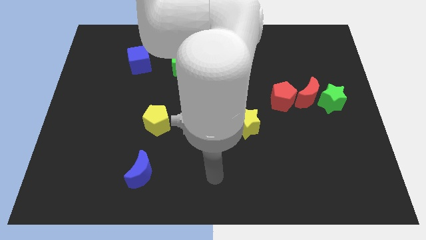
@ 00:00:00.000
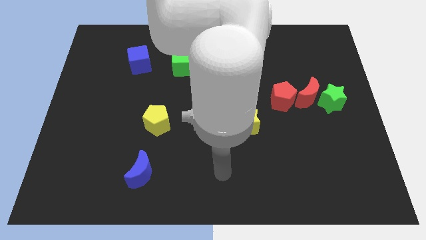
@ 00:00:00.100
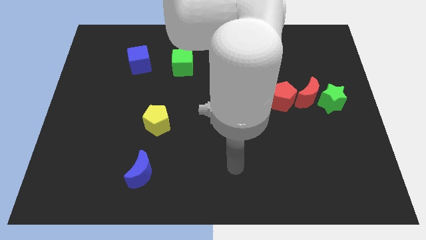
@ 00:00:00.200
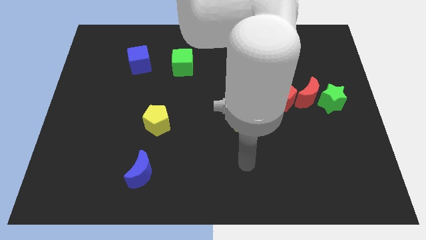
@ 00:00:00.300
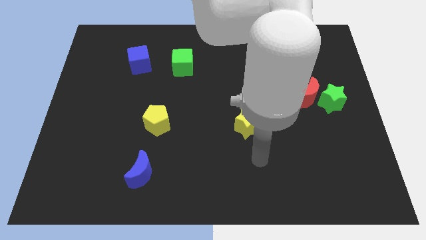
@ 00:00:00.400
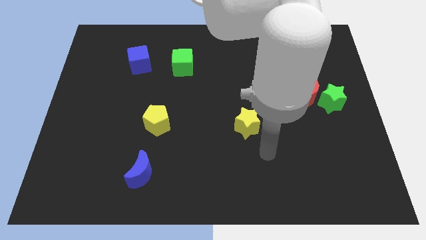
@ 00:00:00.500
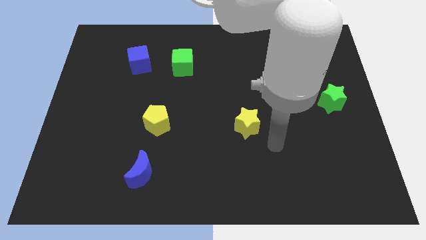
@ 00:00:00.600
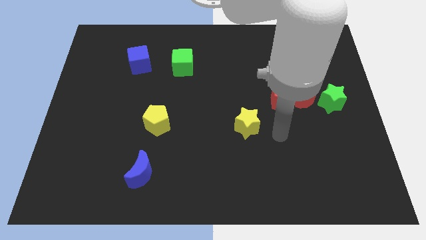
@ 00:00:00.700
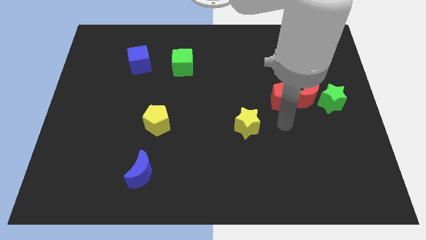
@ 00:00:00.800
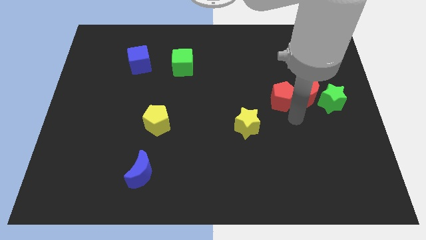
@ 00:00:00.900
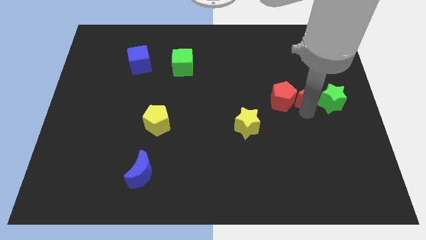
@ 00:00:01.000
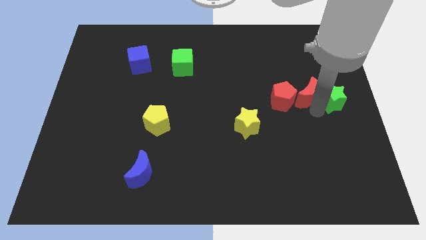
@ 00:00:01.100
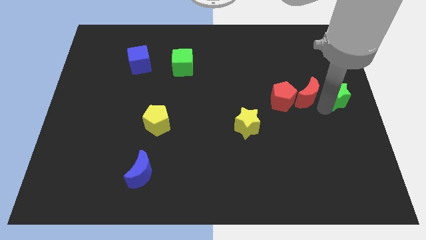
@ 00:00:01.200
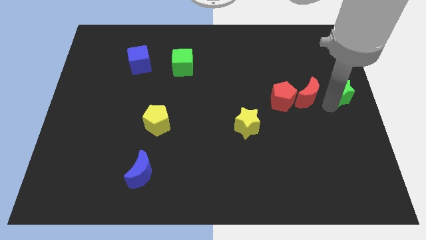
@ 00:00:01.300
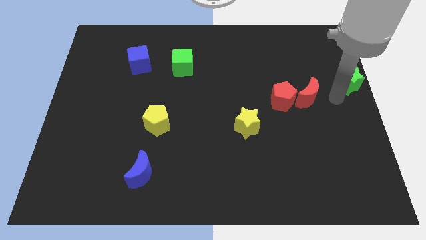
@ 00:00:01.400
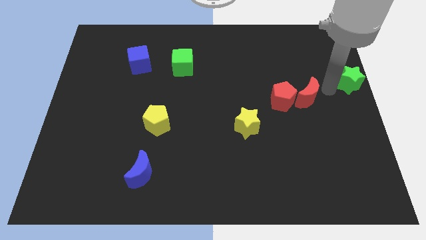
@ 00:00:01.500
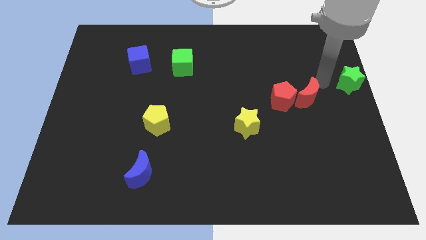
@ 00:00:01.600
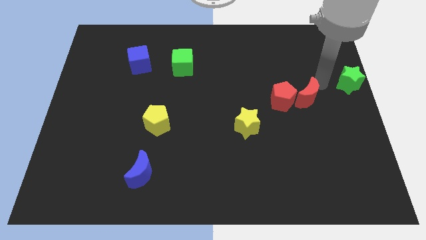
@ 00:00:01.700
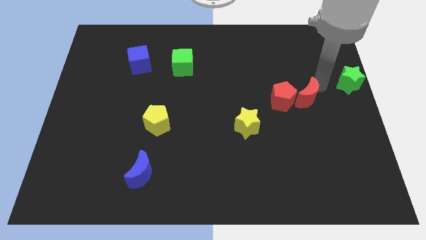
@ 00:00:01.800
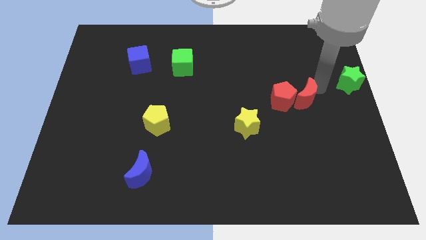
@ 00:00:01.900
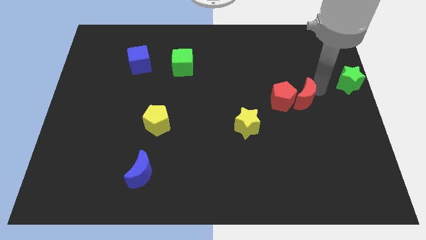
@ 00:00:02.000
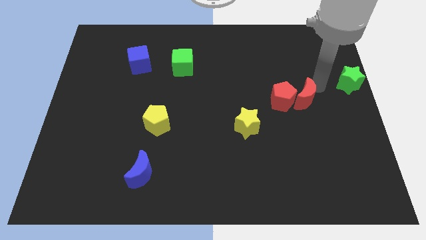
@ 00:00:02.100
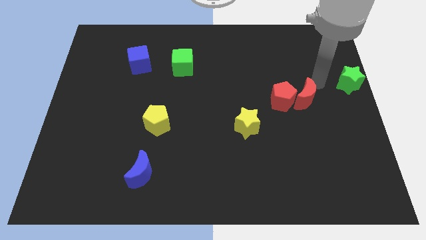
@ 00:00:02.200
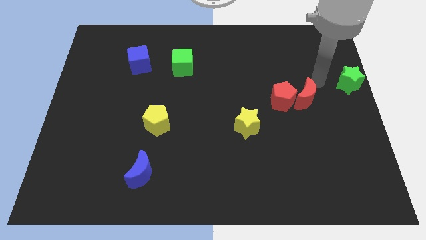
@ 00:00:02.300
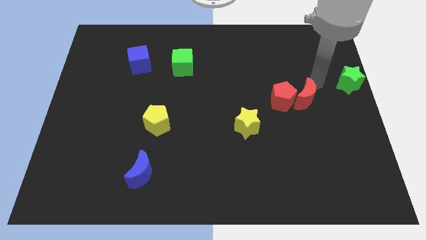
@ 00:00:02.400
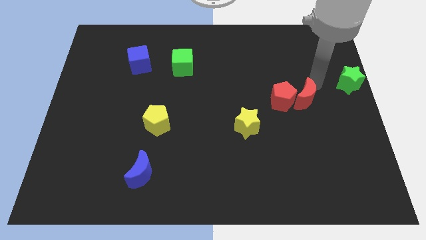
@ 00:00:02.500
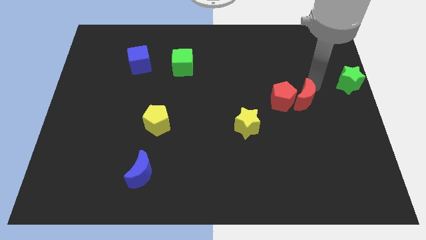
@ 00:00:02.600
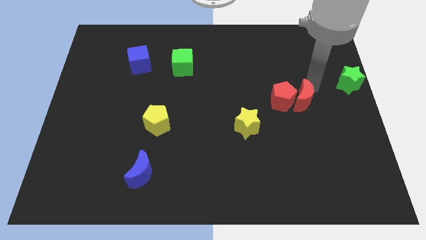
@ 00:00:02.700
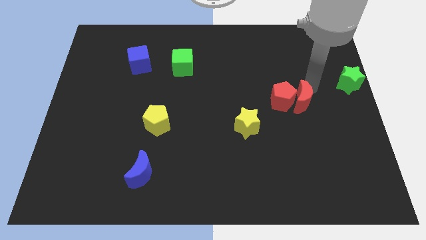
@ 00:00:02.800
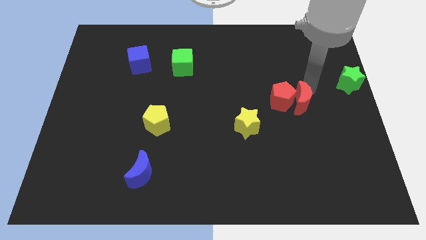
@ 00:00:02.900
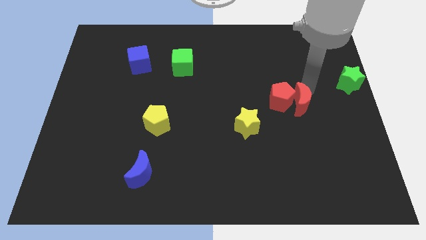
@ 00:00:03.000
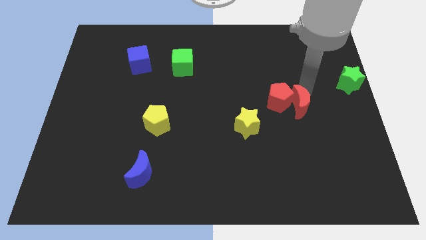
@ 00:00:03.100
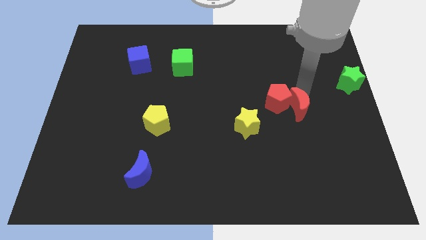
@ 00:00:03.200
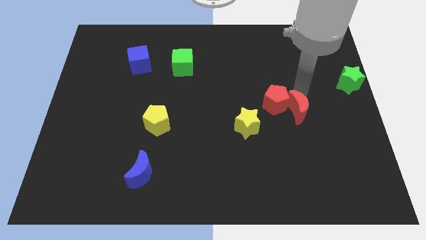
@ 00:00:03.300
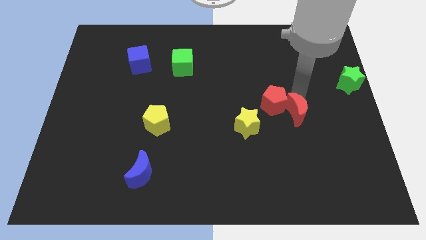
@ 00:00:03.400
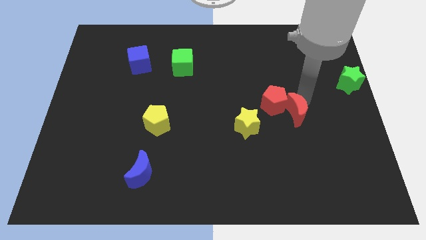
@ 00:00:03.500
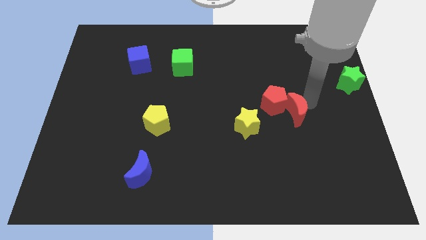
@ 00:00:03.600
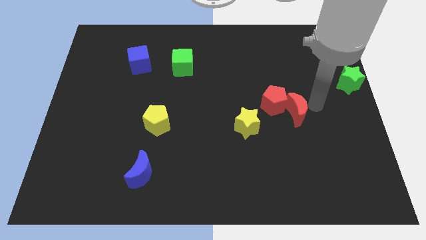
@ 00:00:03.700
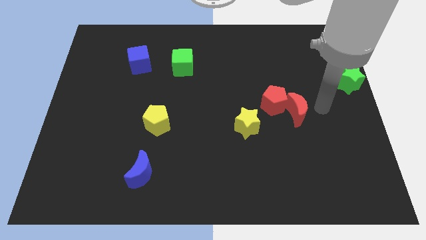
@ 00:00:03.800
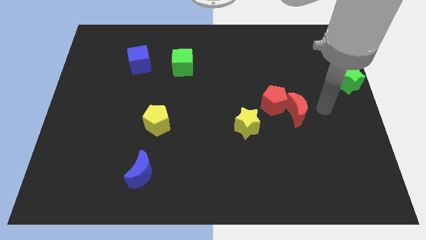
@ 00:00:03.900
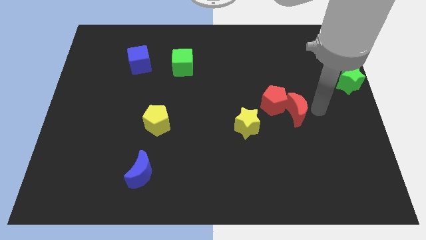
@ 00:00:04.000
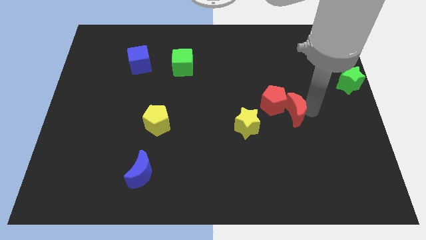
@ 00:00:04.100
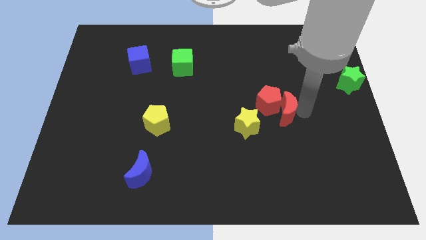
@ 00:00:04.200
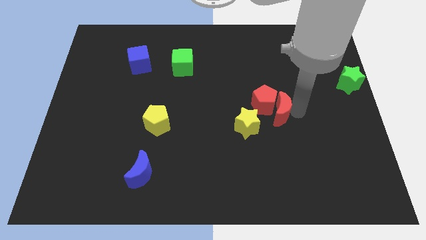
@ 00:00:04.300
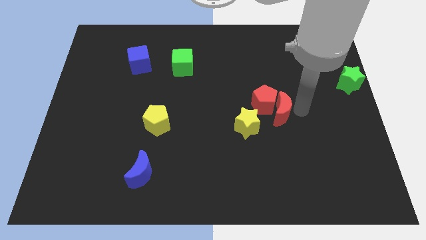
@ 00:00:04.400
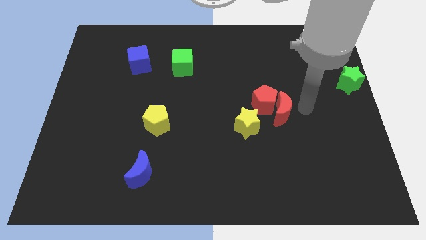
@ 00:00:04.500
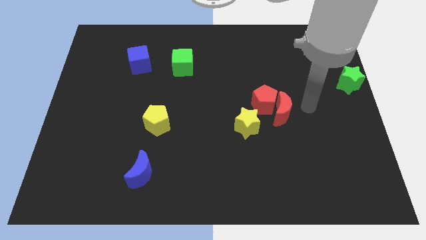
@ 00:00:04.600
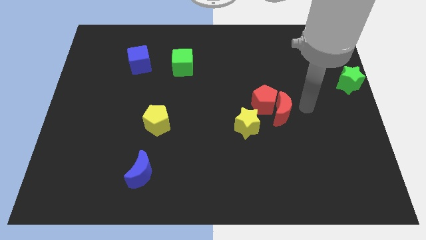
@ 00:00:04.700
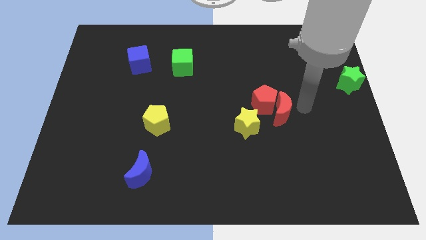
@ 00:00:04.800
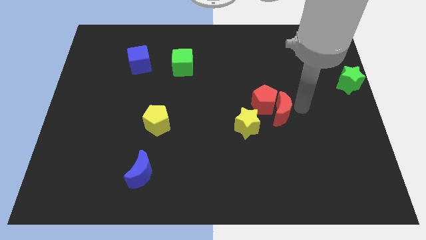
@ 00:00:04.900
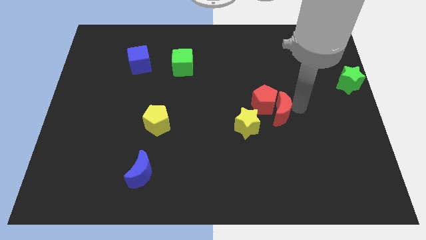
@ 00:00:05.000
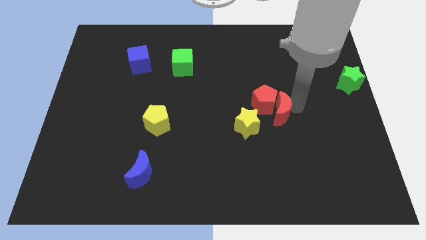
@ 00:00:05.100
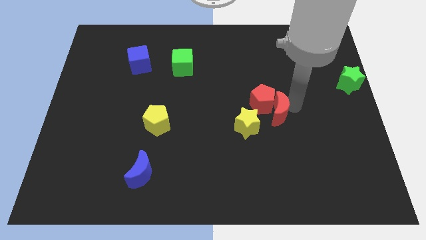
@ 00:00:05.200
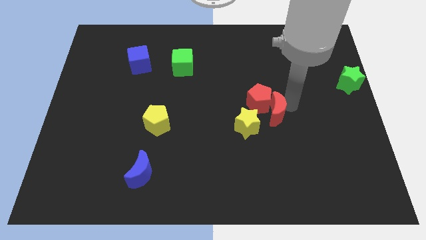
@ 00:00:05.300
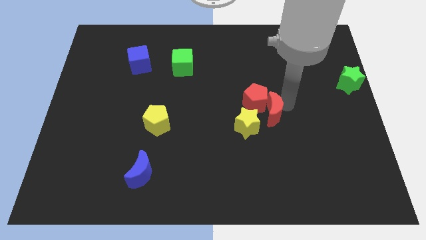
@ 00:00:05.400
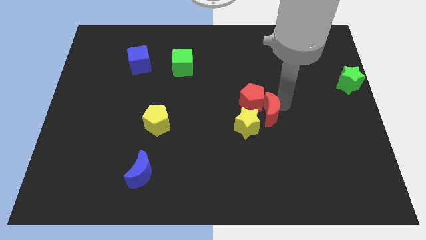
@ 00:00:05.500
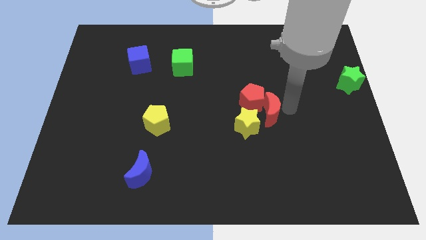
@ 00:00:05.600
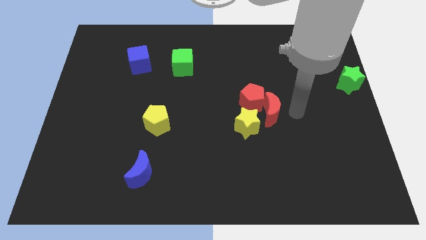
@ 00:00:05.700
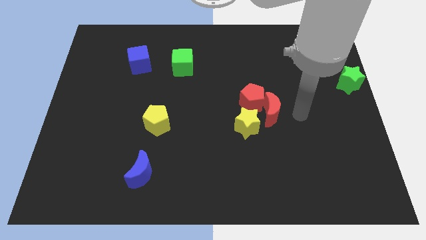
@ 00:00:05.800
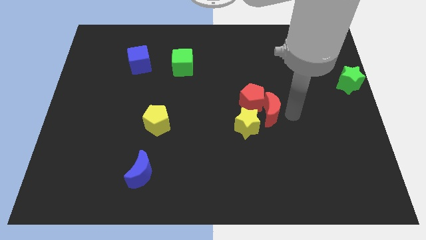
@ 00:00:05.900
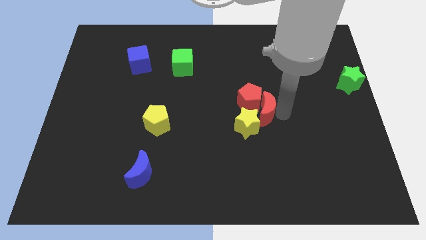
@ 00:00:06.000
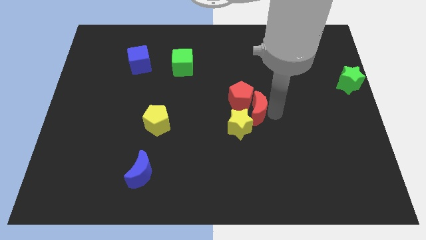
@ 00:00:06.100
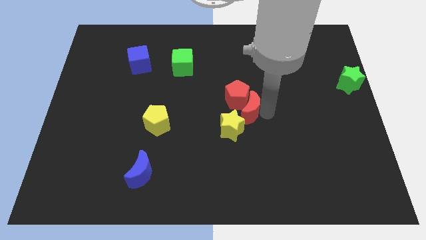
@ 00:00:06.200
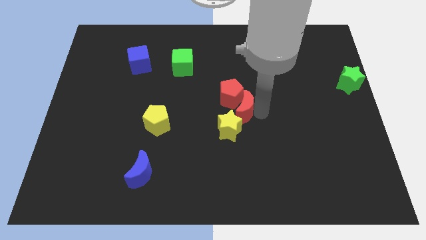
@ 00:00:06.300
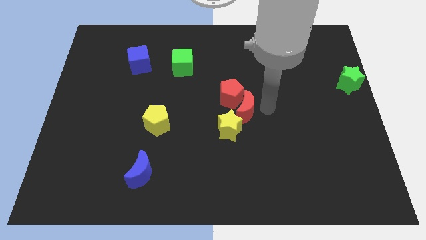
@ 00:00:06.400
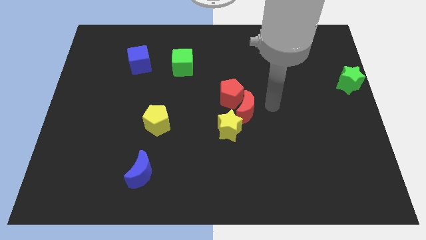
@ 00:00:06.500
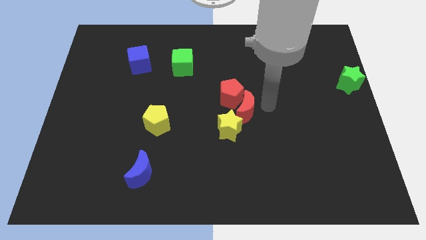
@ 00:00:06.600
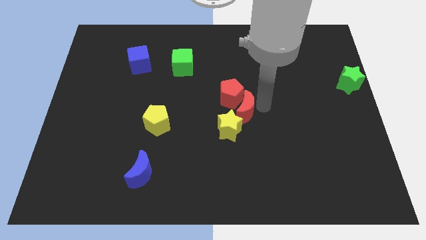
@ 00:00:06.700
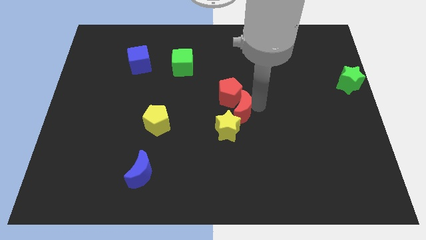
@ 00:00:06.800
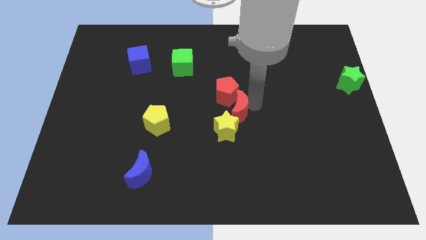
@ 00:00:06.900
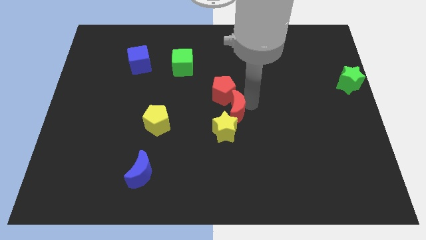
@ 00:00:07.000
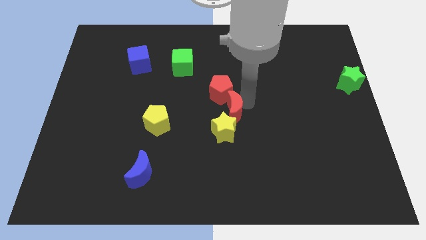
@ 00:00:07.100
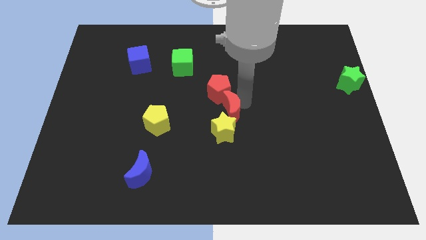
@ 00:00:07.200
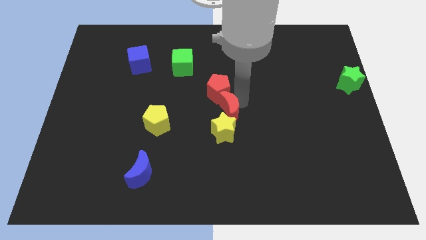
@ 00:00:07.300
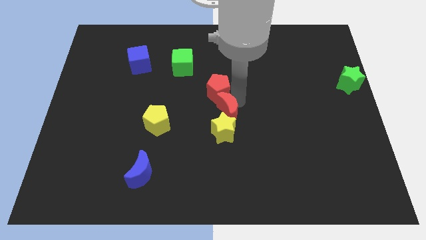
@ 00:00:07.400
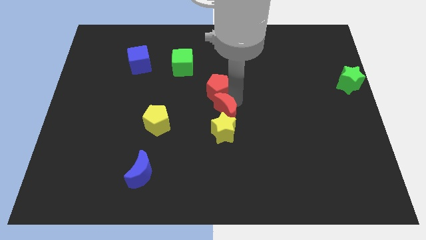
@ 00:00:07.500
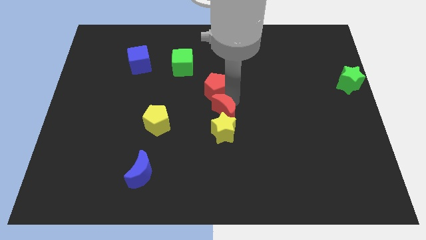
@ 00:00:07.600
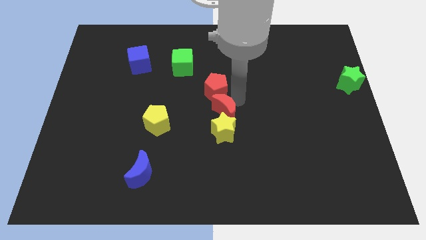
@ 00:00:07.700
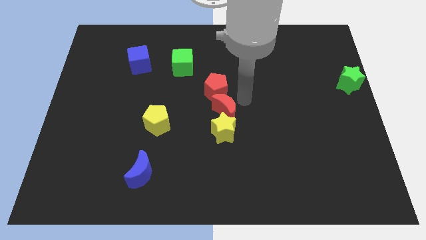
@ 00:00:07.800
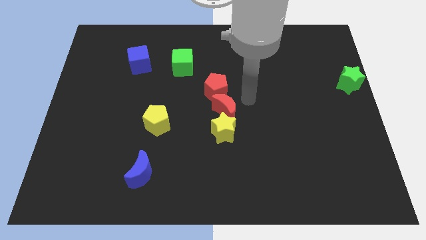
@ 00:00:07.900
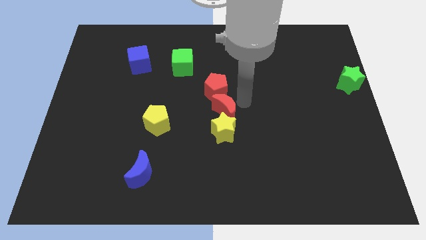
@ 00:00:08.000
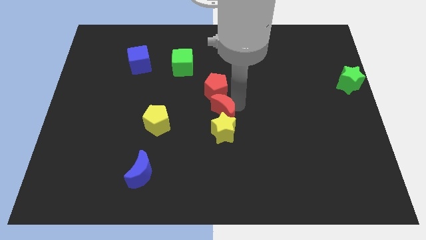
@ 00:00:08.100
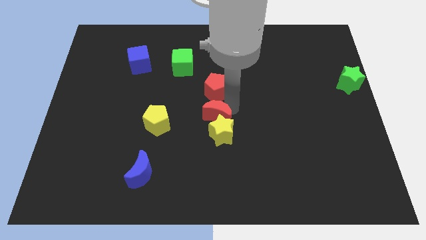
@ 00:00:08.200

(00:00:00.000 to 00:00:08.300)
push the red moon right of the yellow pentagon
